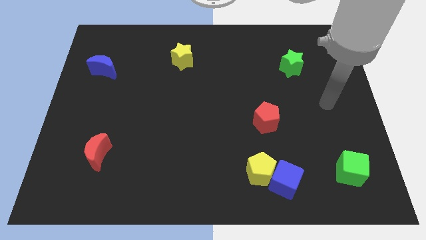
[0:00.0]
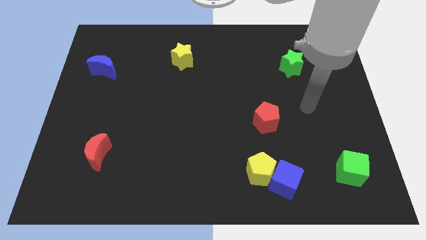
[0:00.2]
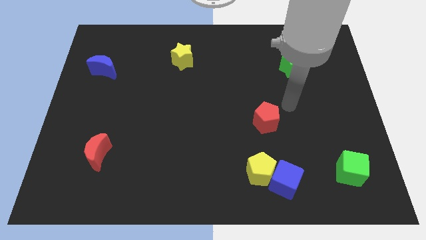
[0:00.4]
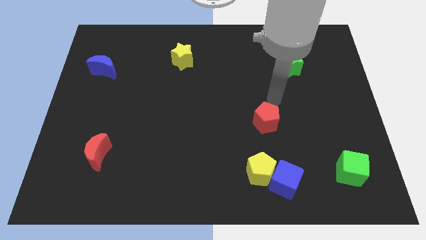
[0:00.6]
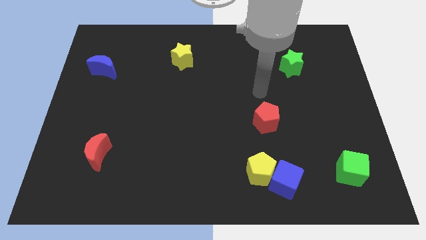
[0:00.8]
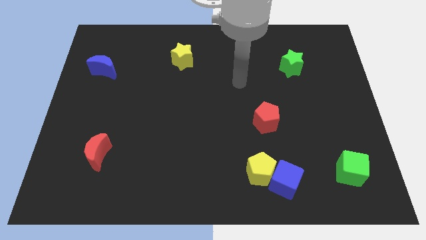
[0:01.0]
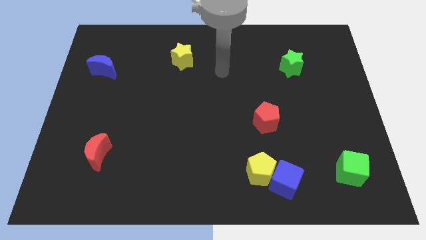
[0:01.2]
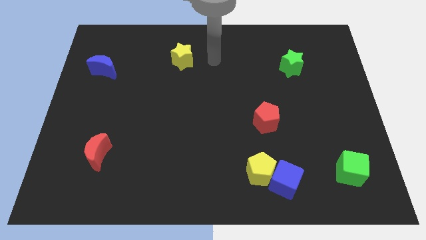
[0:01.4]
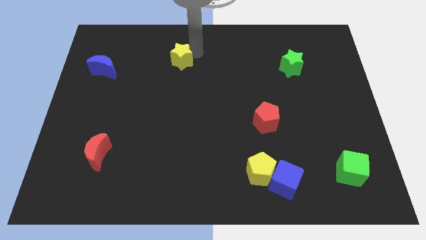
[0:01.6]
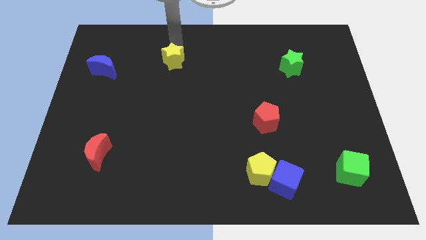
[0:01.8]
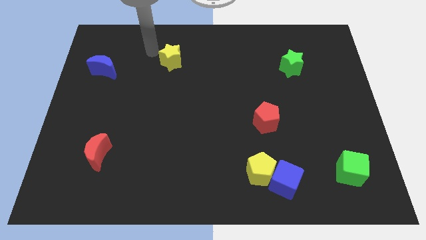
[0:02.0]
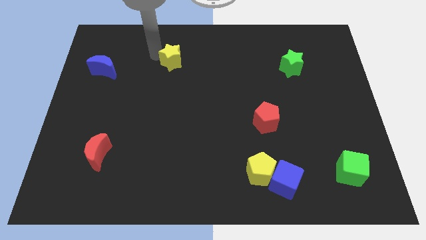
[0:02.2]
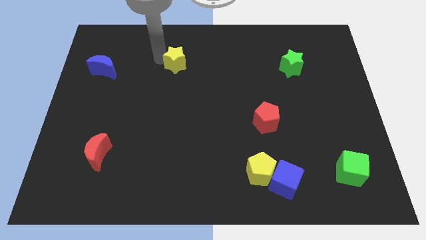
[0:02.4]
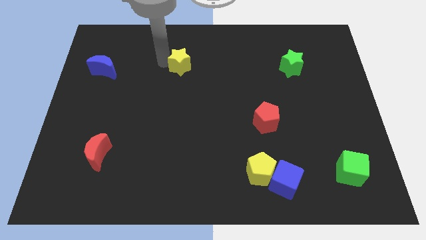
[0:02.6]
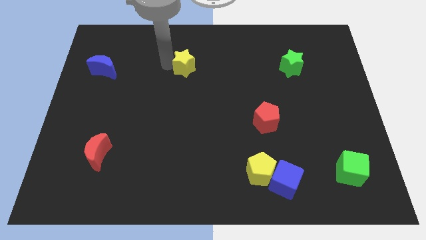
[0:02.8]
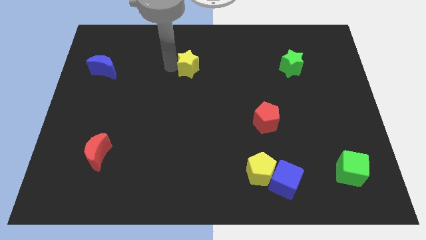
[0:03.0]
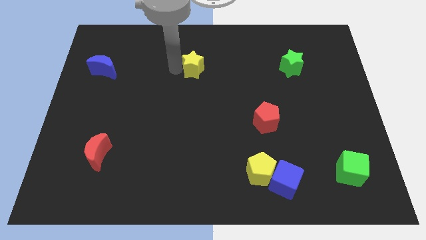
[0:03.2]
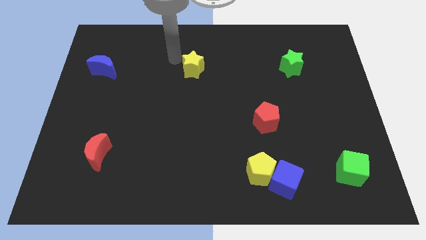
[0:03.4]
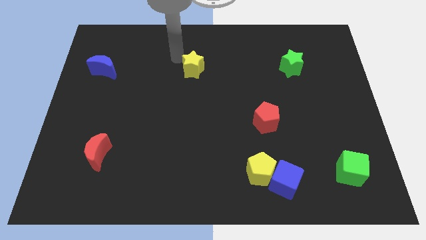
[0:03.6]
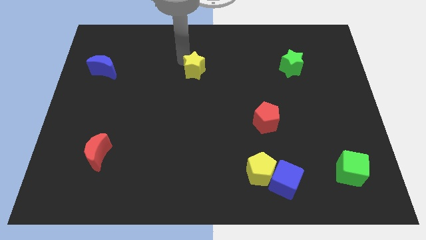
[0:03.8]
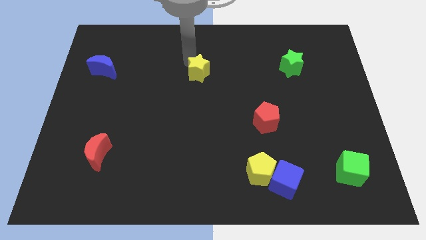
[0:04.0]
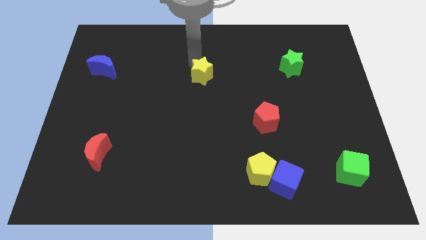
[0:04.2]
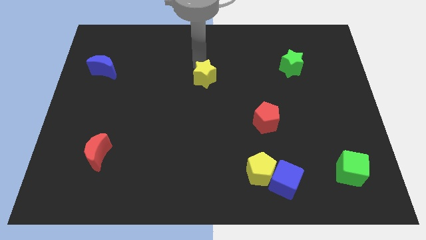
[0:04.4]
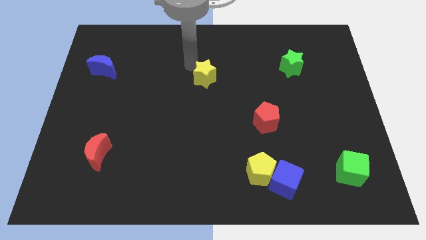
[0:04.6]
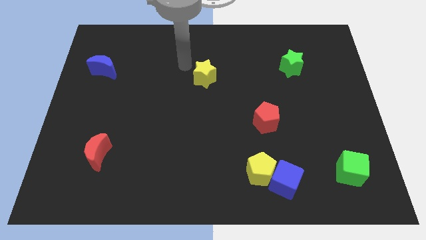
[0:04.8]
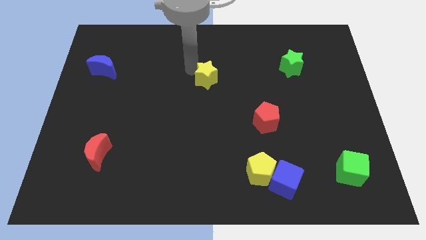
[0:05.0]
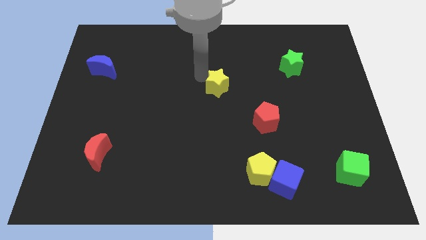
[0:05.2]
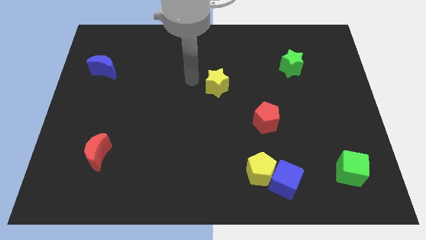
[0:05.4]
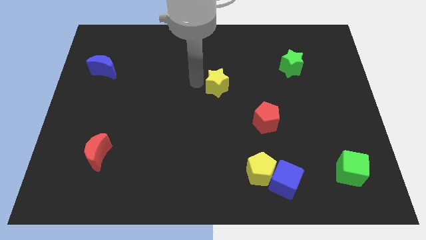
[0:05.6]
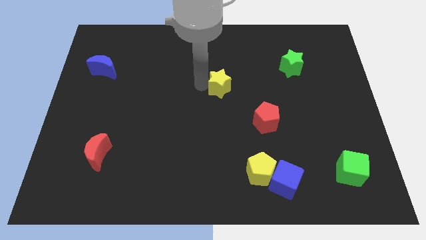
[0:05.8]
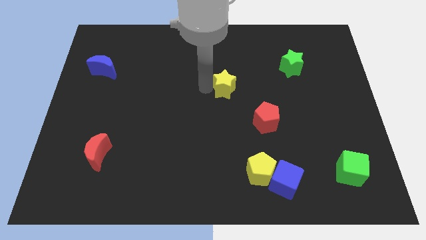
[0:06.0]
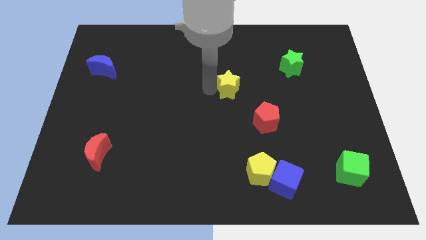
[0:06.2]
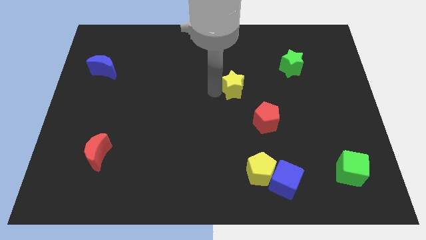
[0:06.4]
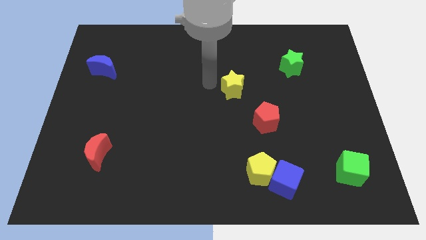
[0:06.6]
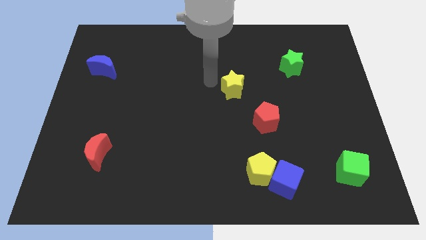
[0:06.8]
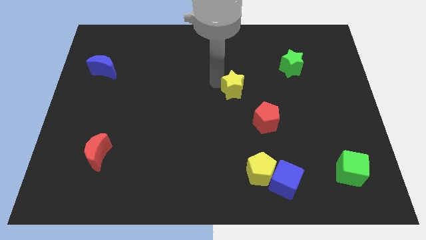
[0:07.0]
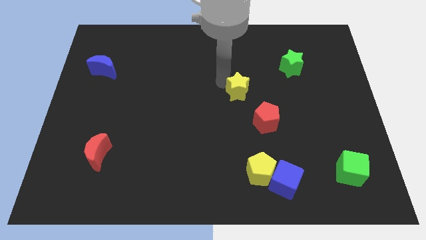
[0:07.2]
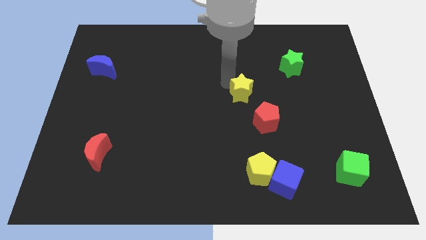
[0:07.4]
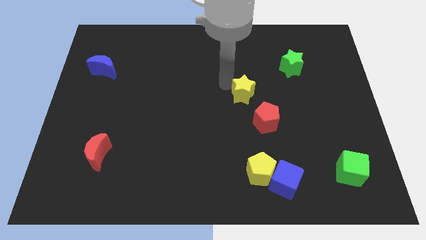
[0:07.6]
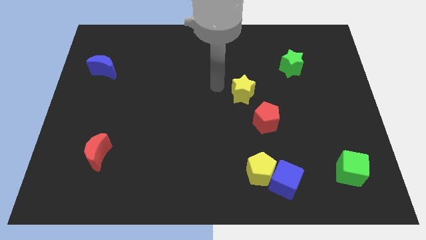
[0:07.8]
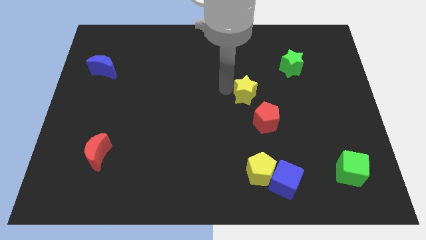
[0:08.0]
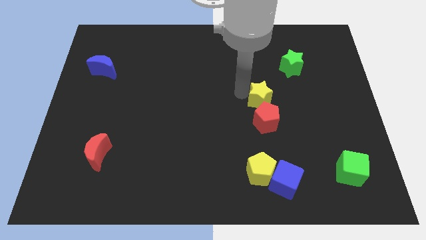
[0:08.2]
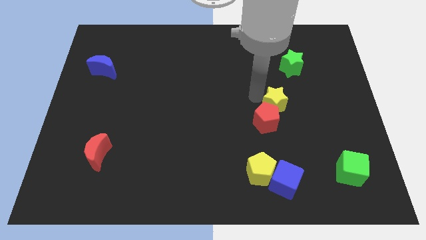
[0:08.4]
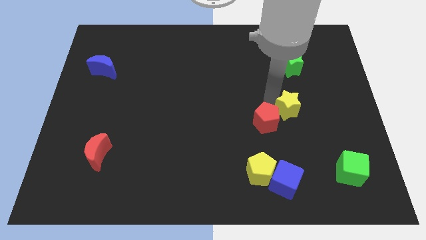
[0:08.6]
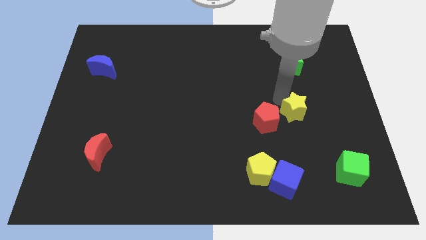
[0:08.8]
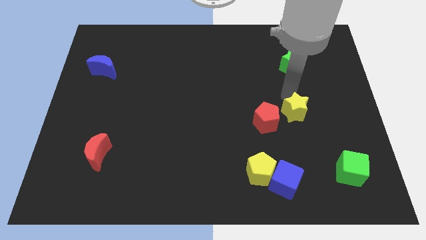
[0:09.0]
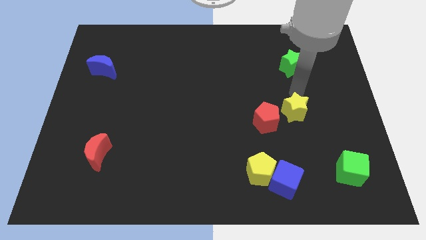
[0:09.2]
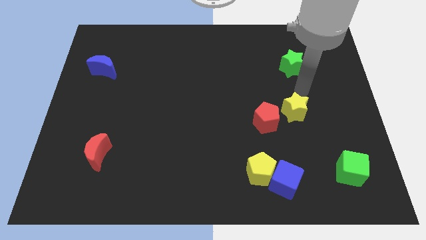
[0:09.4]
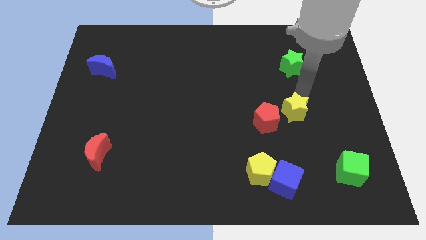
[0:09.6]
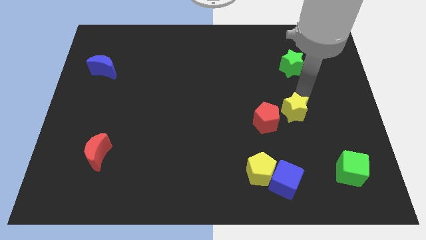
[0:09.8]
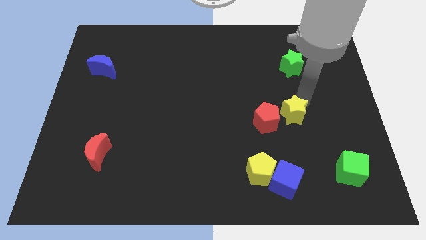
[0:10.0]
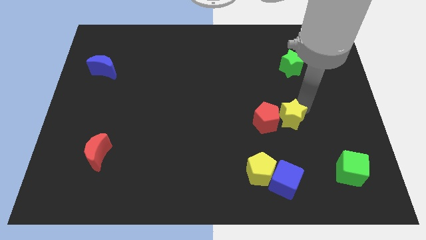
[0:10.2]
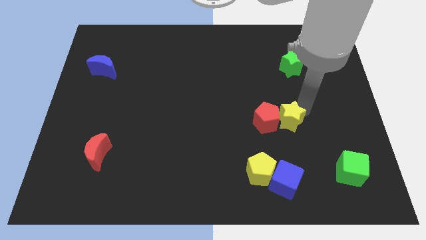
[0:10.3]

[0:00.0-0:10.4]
push the yellow star to the bottom right side of the red pentagon

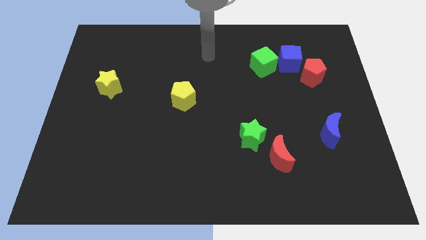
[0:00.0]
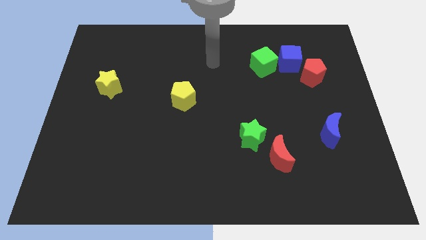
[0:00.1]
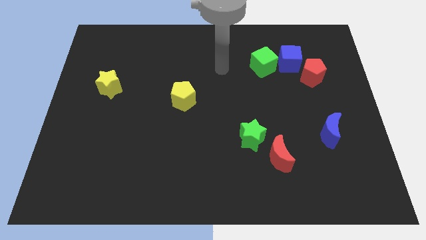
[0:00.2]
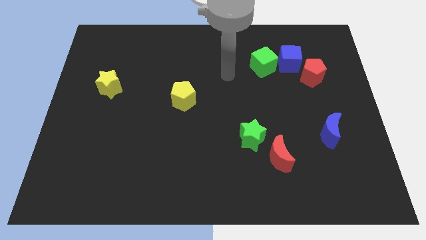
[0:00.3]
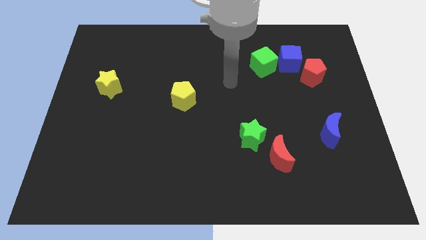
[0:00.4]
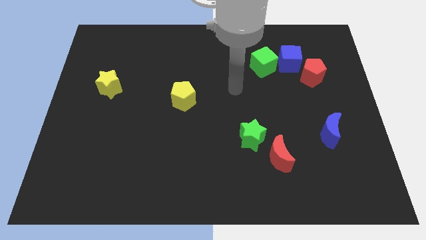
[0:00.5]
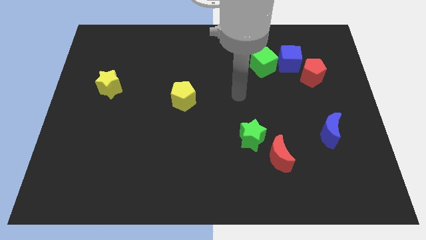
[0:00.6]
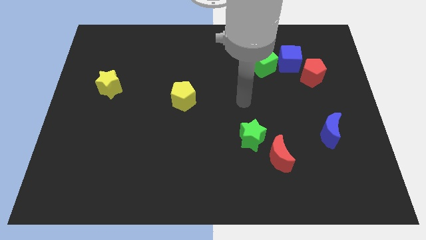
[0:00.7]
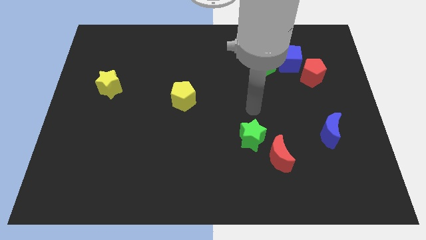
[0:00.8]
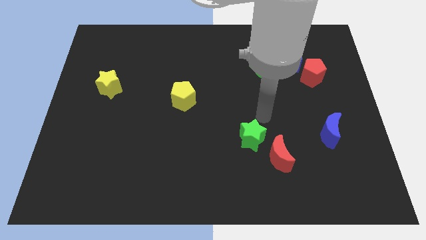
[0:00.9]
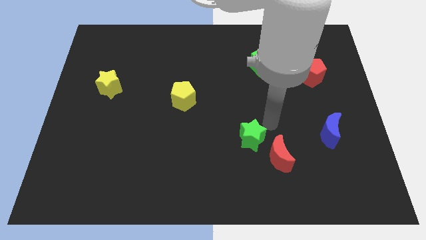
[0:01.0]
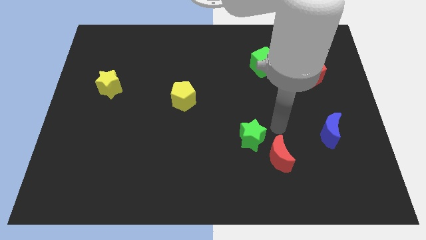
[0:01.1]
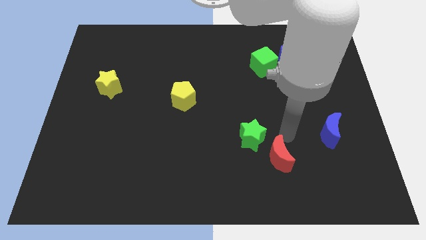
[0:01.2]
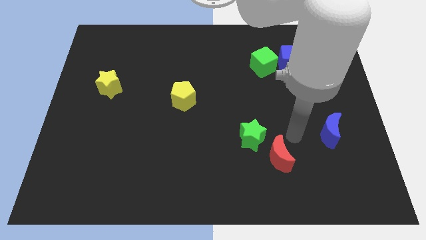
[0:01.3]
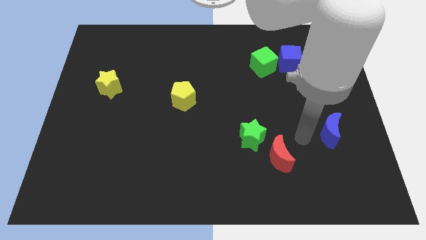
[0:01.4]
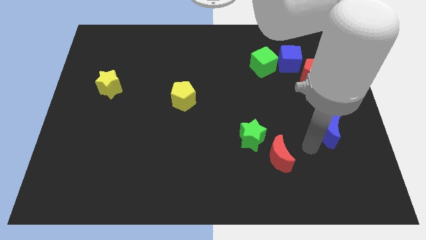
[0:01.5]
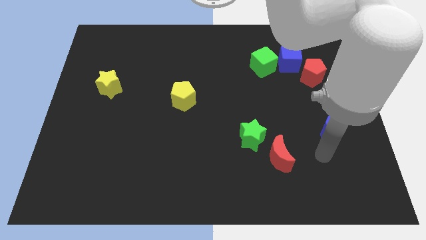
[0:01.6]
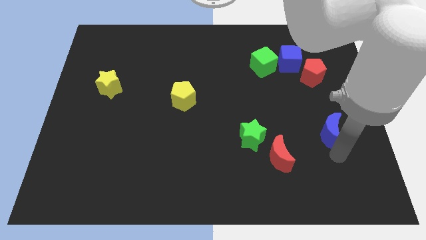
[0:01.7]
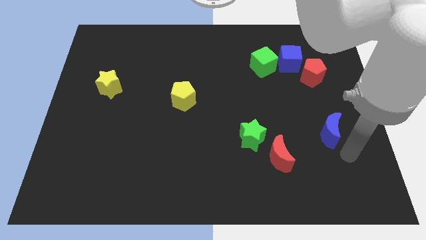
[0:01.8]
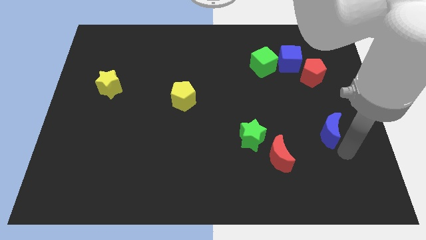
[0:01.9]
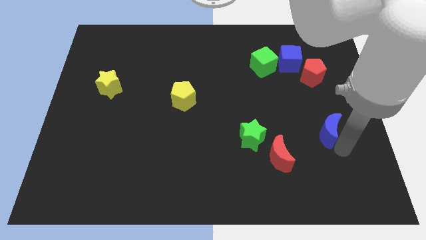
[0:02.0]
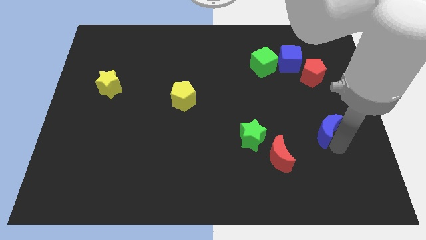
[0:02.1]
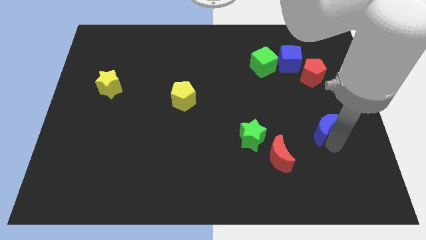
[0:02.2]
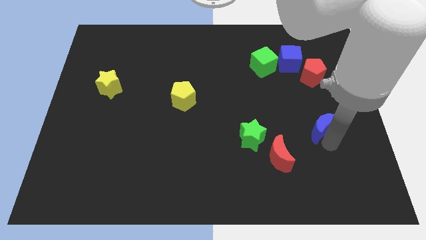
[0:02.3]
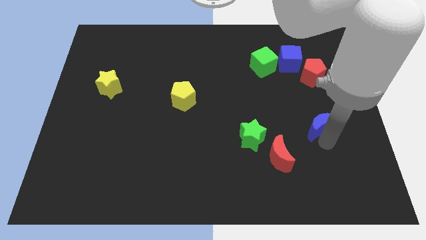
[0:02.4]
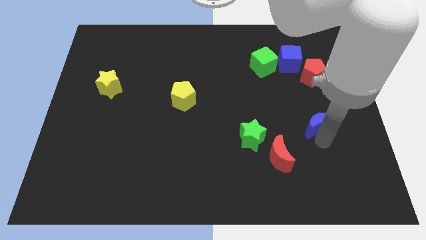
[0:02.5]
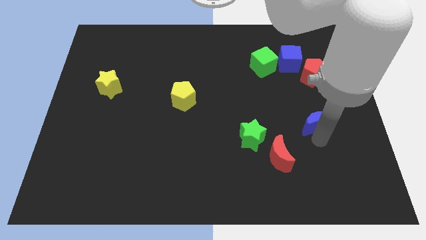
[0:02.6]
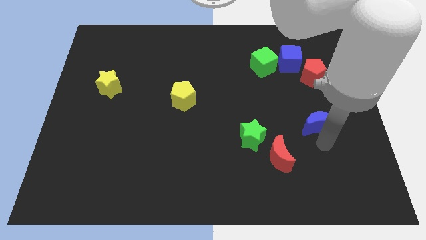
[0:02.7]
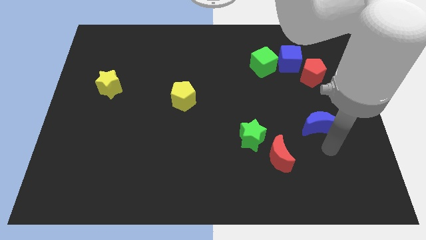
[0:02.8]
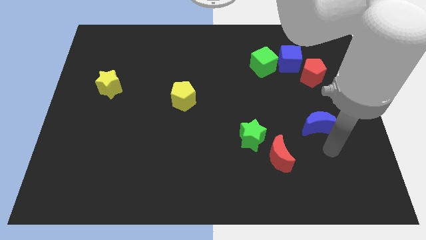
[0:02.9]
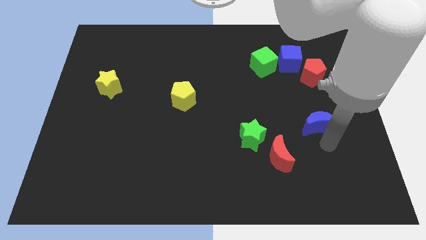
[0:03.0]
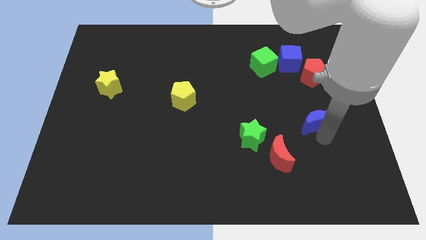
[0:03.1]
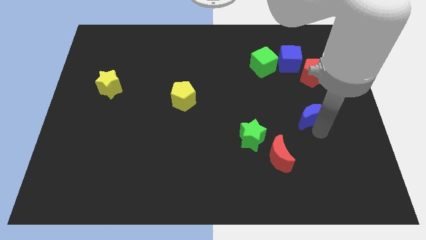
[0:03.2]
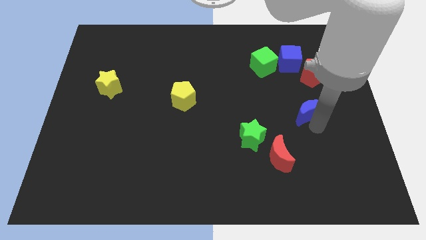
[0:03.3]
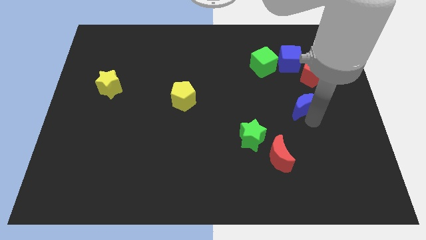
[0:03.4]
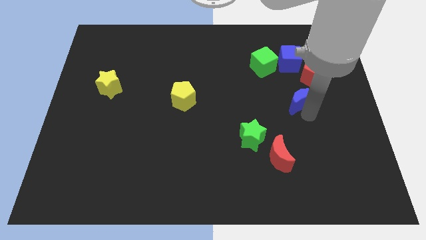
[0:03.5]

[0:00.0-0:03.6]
move the blue moon to the bottom left side of the red pentagon
